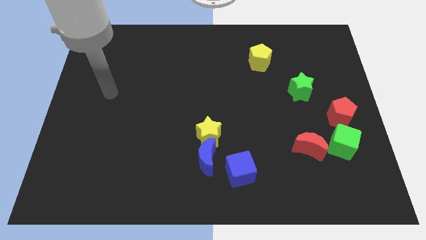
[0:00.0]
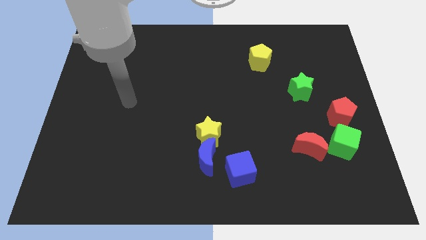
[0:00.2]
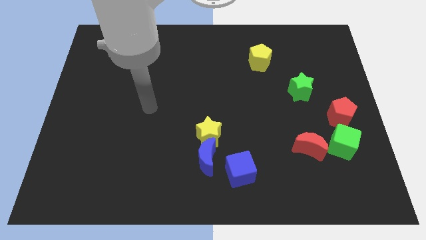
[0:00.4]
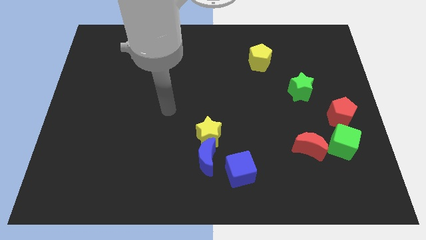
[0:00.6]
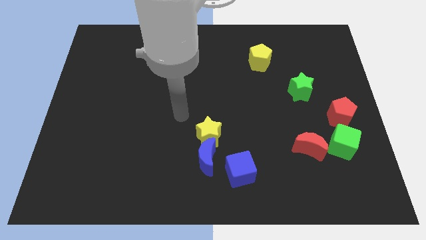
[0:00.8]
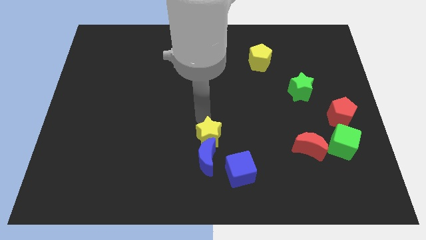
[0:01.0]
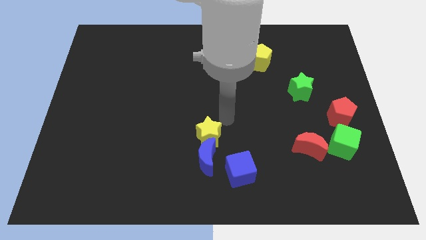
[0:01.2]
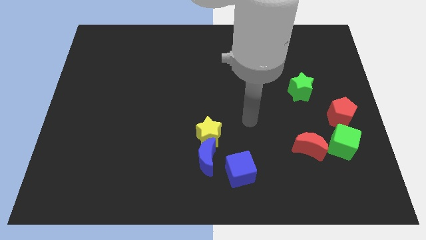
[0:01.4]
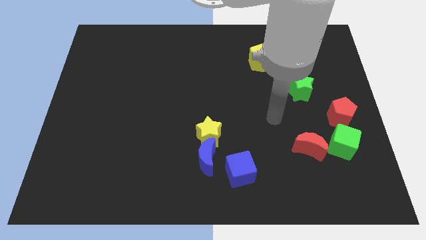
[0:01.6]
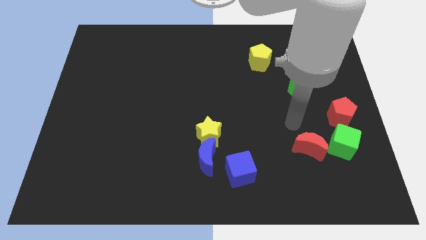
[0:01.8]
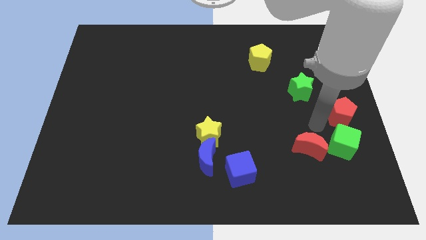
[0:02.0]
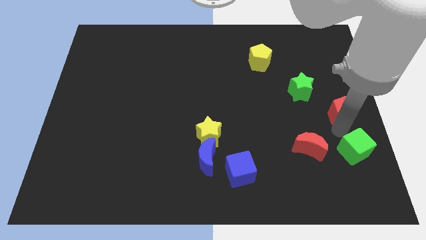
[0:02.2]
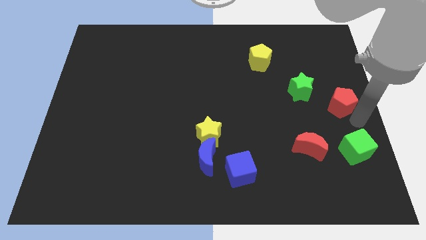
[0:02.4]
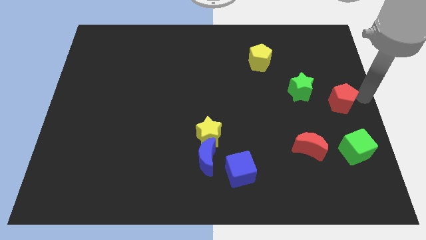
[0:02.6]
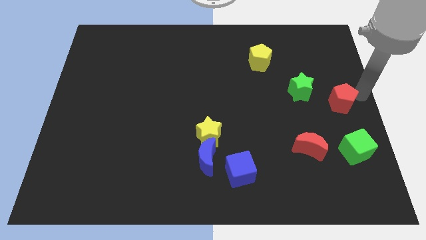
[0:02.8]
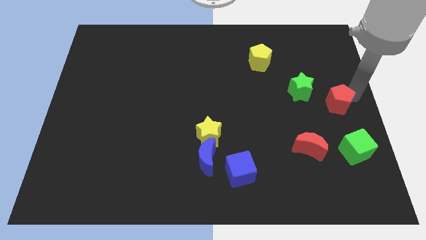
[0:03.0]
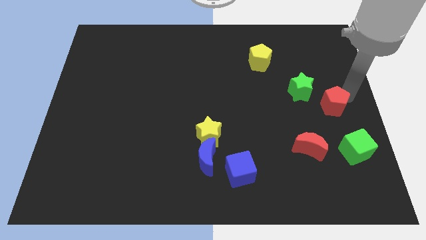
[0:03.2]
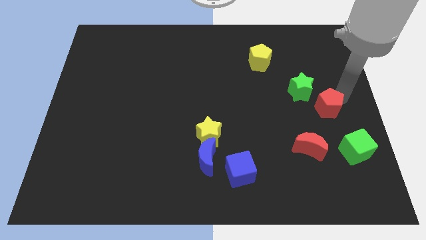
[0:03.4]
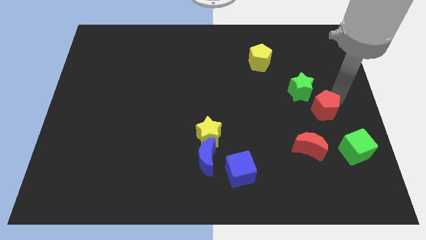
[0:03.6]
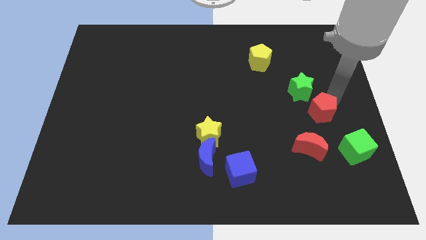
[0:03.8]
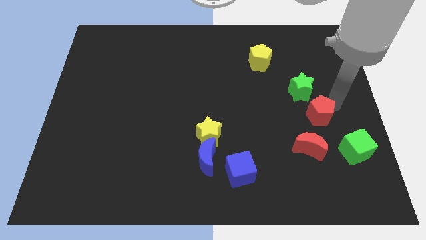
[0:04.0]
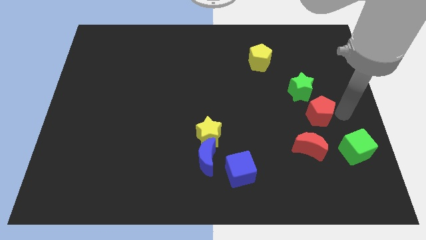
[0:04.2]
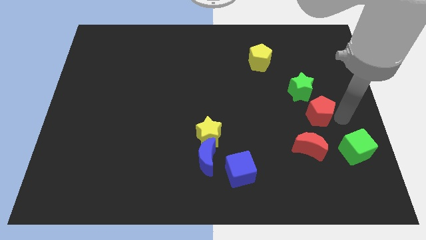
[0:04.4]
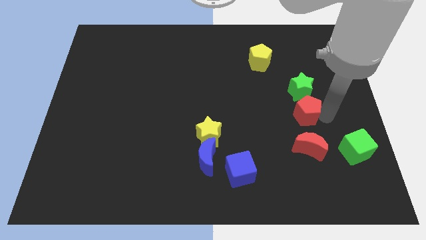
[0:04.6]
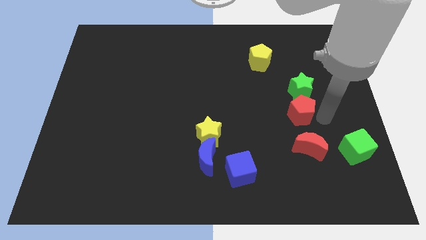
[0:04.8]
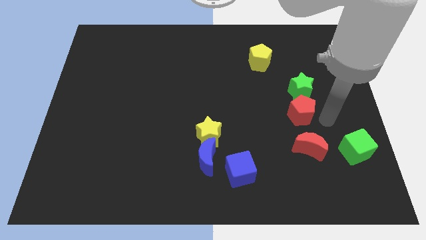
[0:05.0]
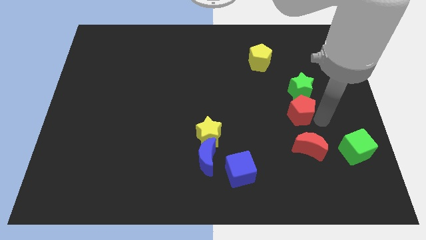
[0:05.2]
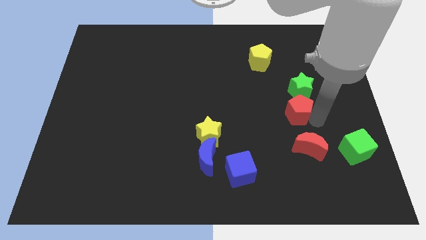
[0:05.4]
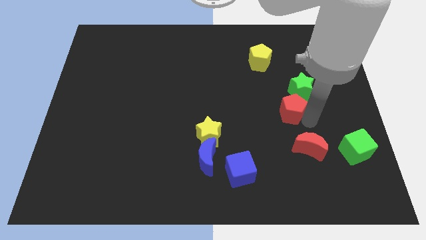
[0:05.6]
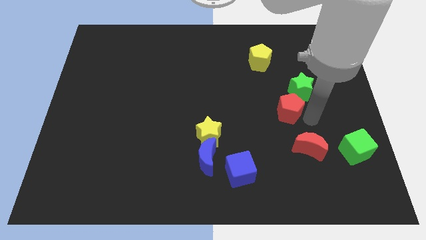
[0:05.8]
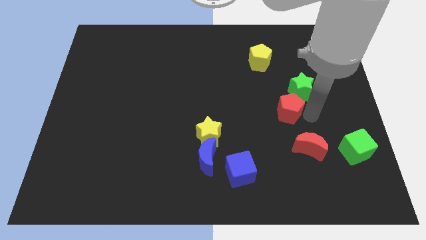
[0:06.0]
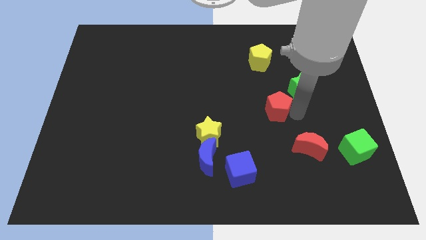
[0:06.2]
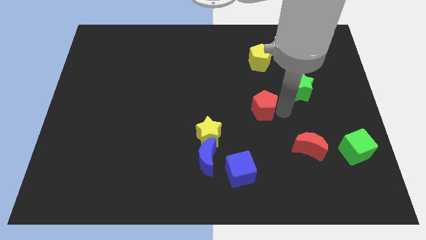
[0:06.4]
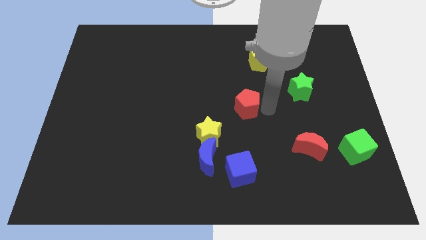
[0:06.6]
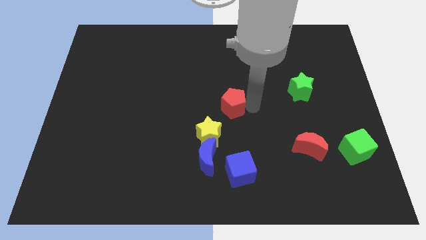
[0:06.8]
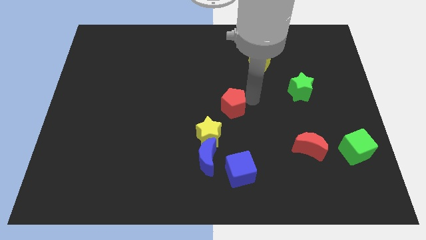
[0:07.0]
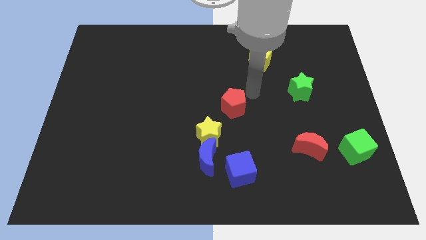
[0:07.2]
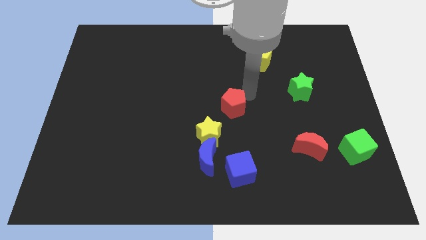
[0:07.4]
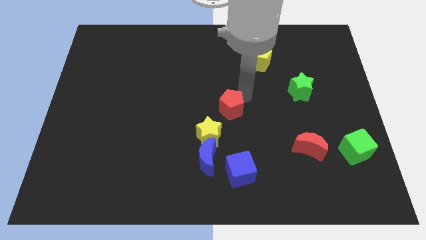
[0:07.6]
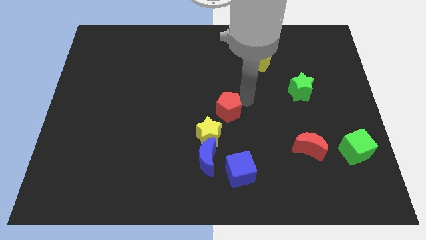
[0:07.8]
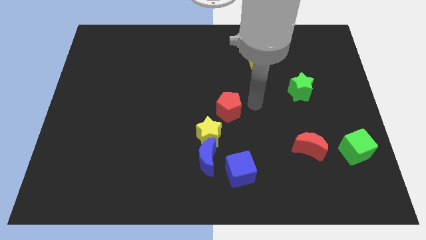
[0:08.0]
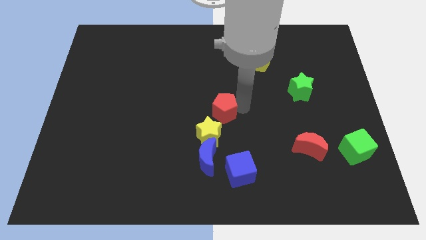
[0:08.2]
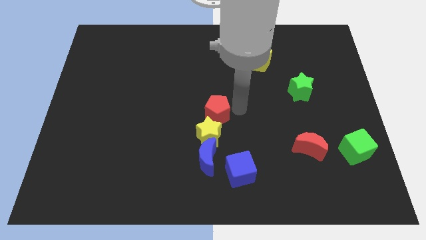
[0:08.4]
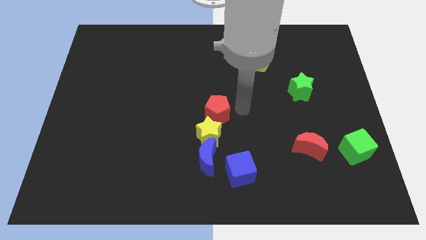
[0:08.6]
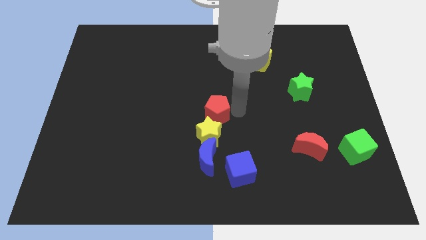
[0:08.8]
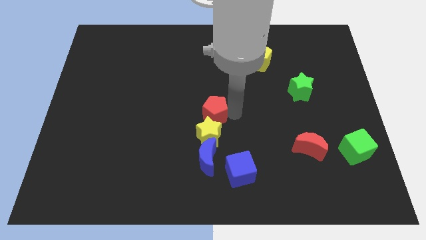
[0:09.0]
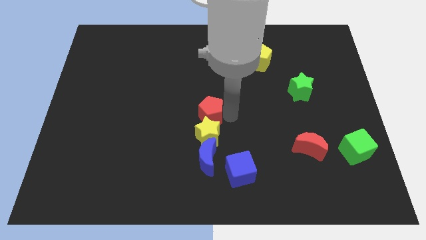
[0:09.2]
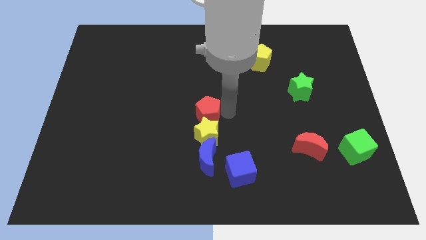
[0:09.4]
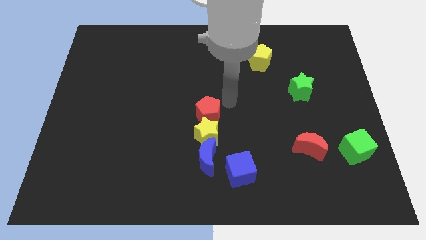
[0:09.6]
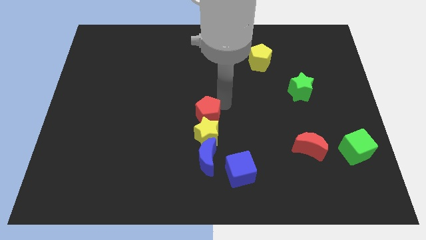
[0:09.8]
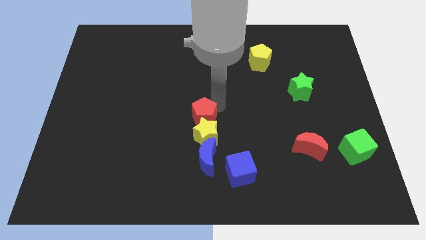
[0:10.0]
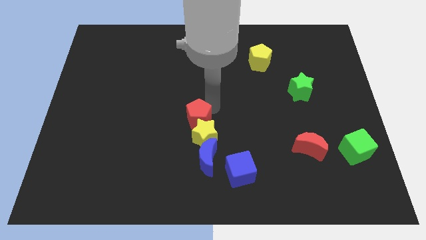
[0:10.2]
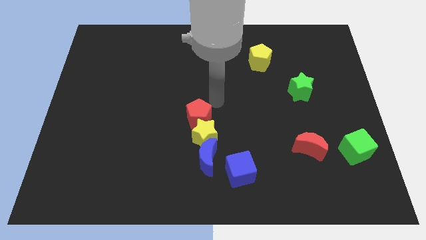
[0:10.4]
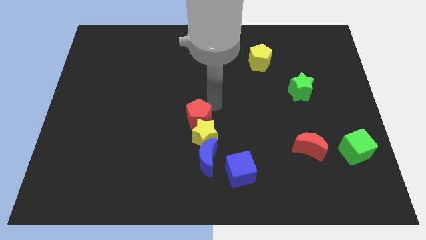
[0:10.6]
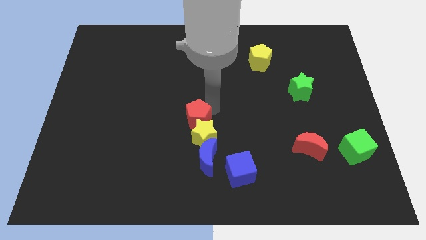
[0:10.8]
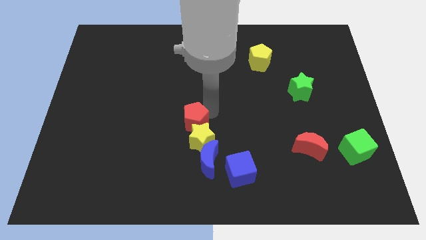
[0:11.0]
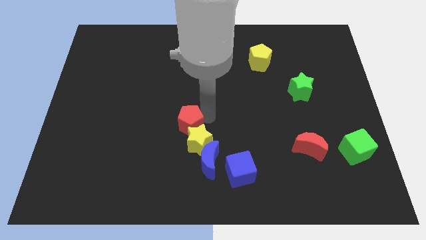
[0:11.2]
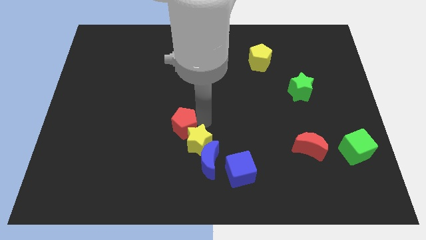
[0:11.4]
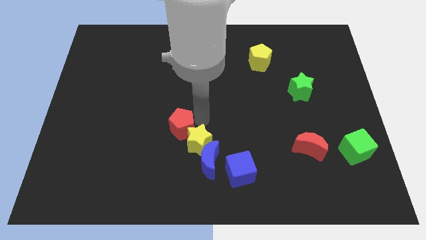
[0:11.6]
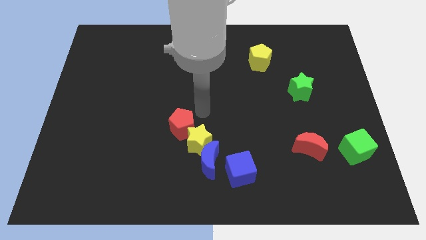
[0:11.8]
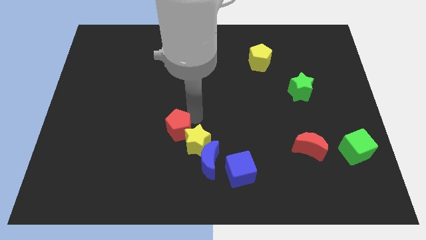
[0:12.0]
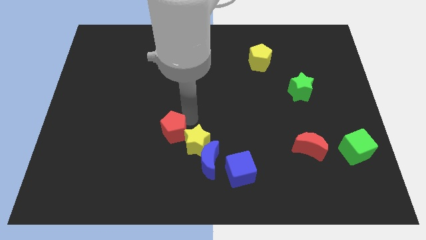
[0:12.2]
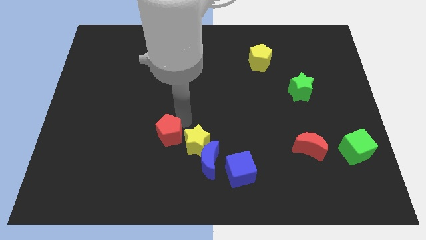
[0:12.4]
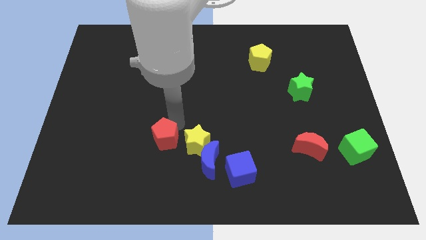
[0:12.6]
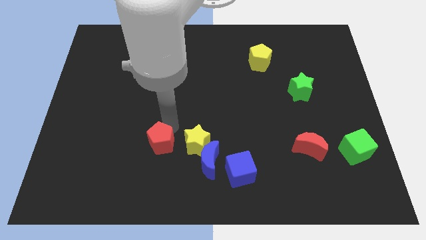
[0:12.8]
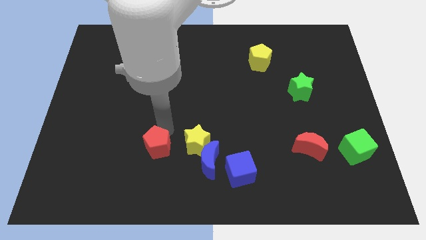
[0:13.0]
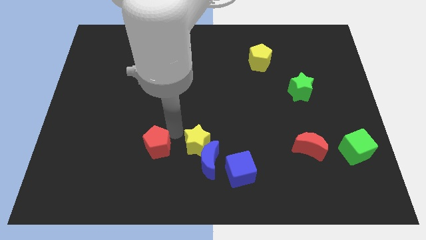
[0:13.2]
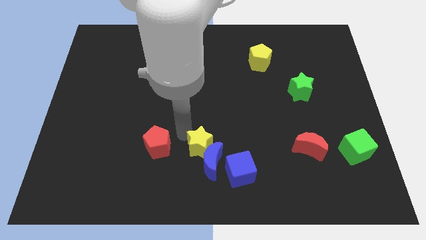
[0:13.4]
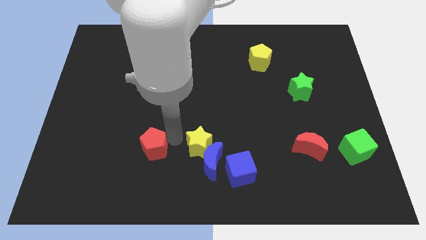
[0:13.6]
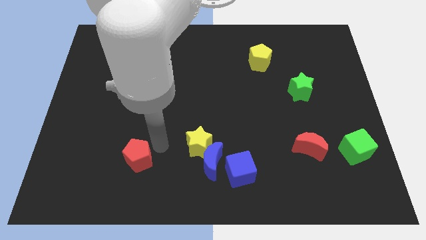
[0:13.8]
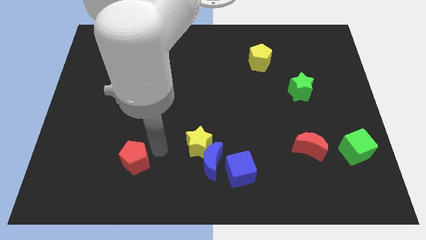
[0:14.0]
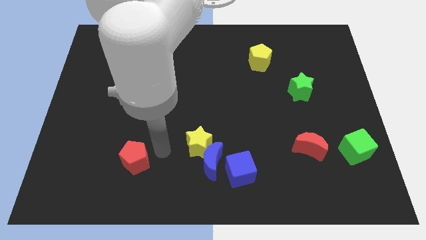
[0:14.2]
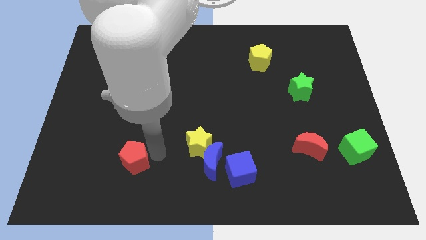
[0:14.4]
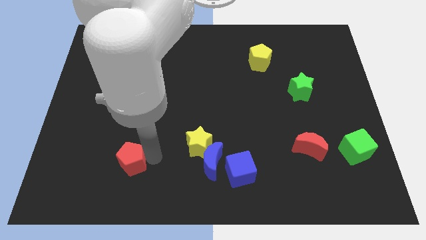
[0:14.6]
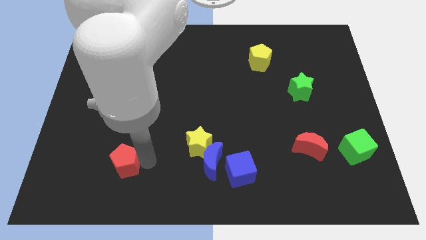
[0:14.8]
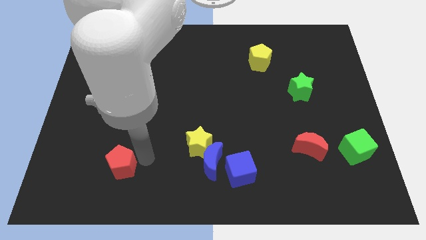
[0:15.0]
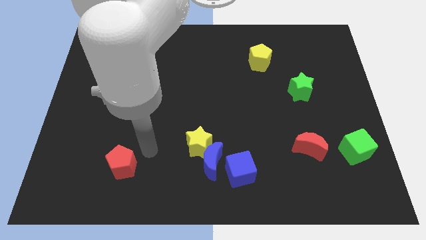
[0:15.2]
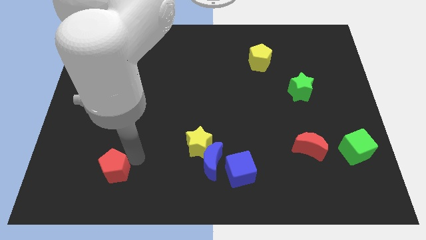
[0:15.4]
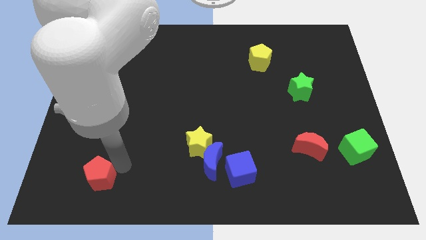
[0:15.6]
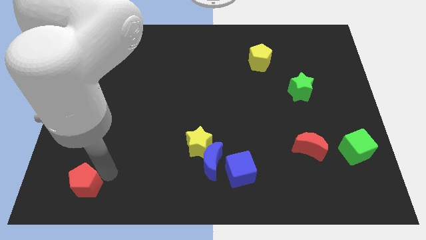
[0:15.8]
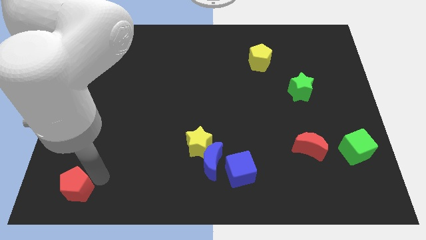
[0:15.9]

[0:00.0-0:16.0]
slide the red pentagon to the bottom left
